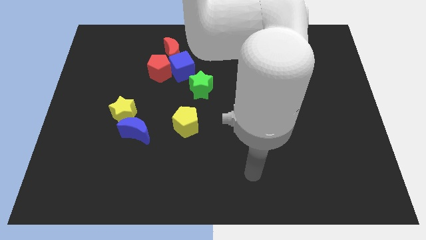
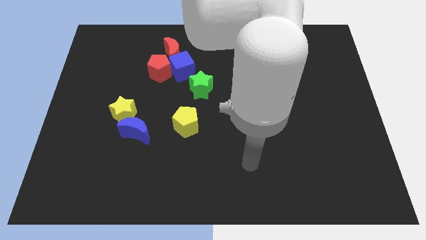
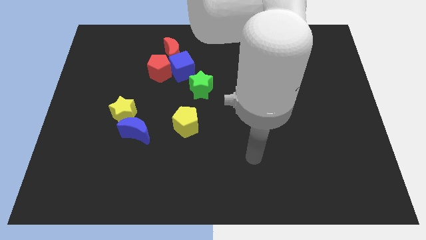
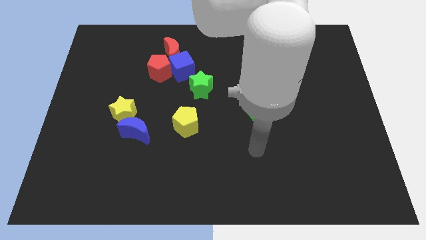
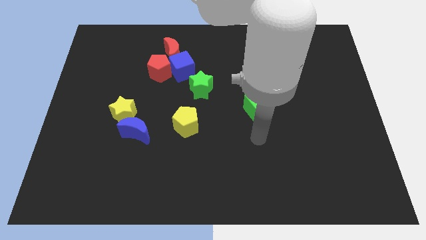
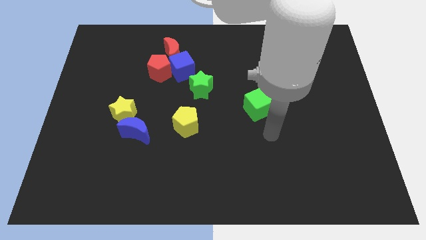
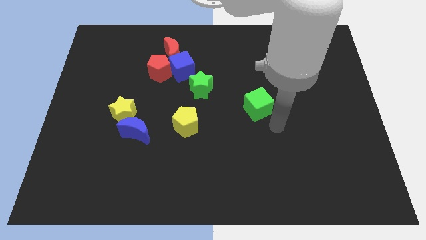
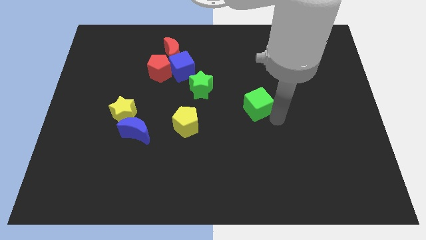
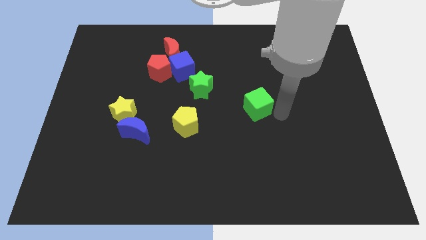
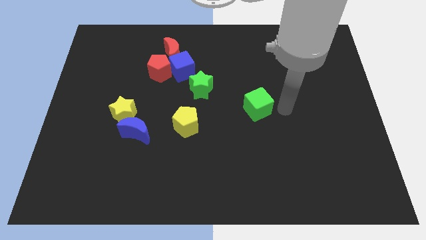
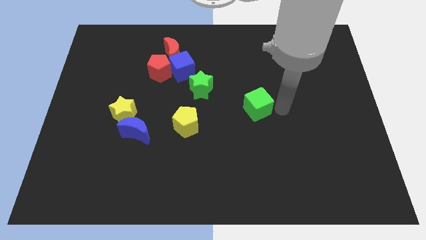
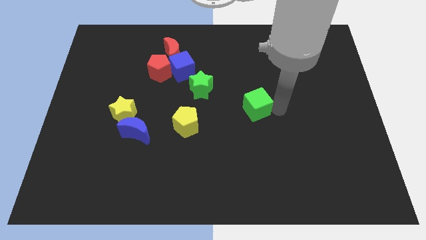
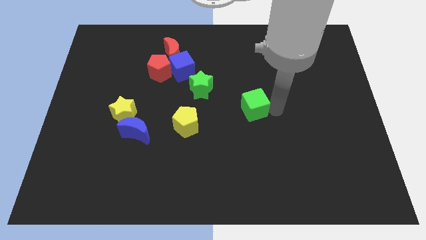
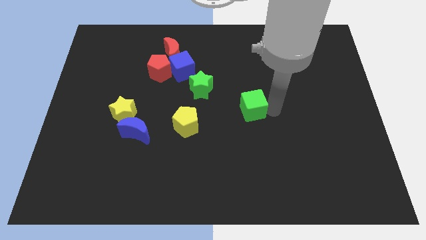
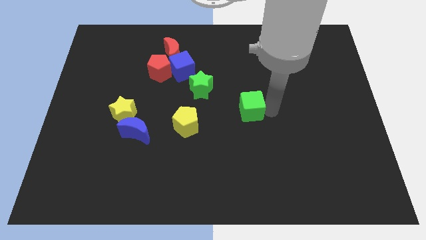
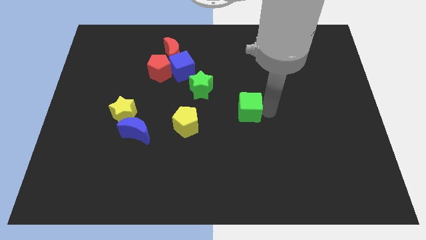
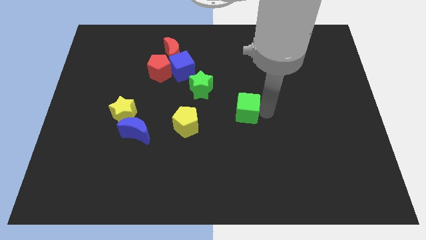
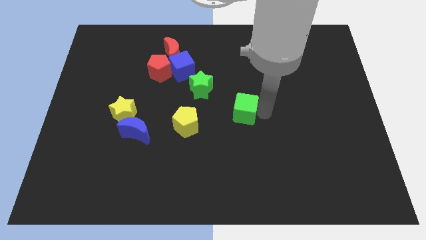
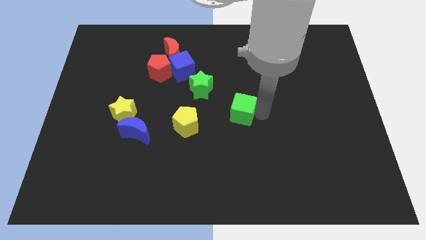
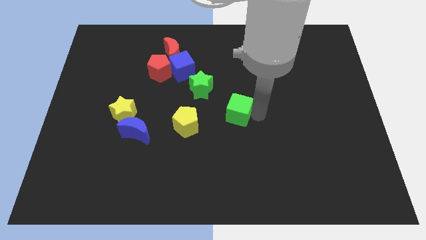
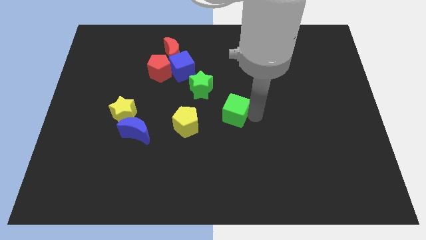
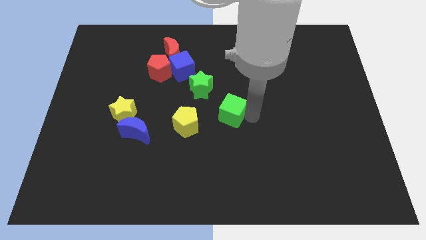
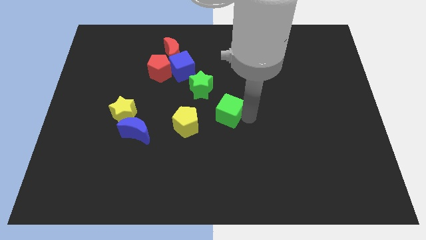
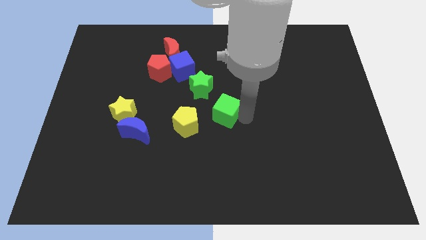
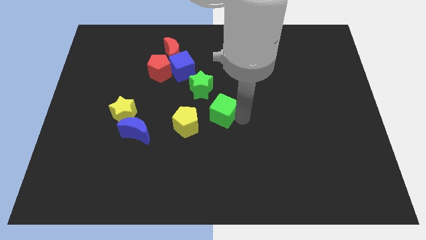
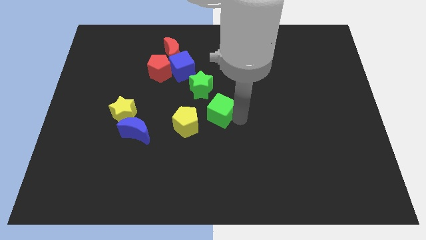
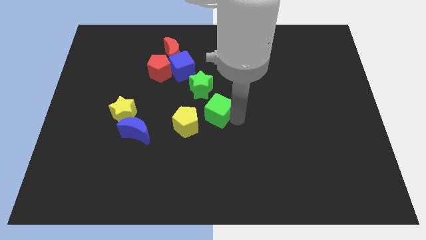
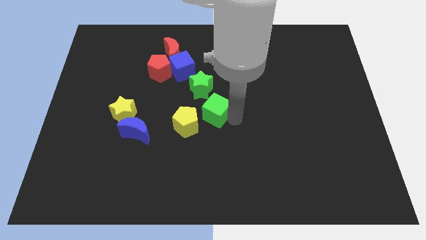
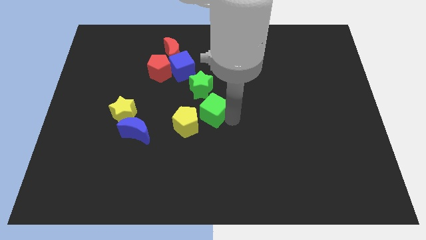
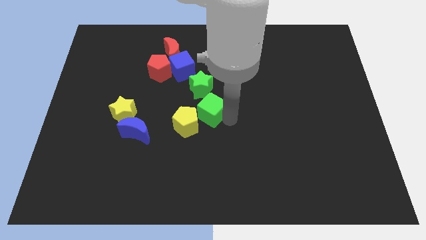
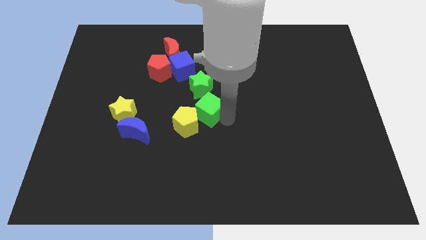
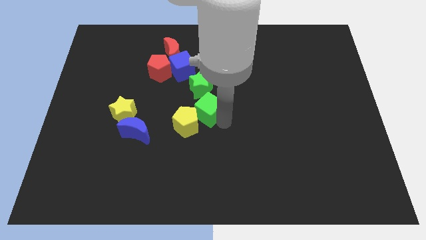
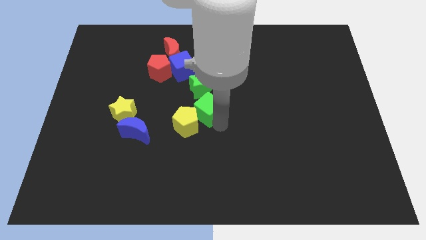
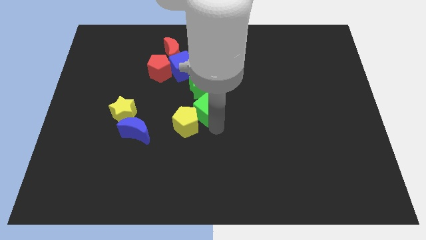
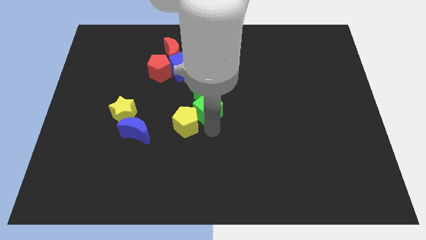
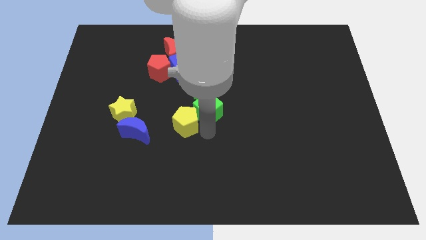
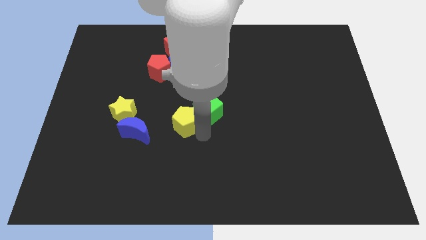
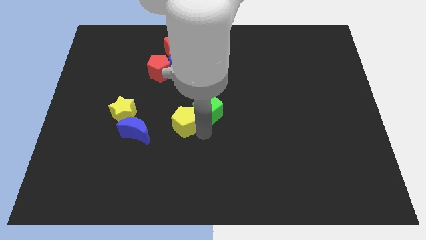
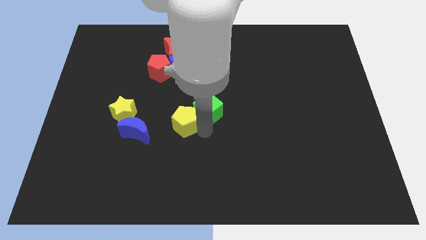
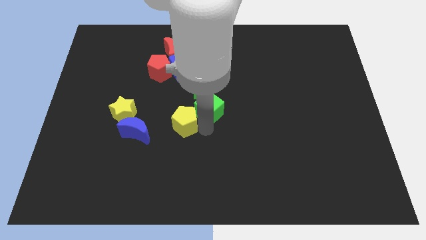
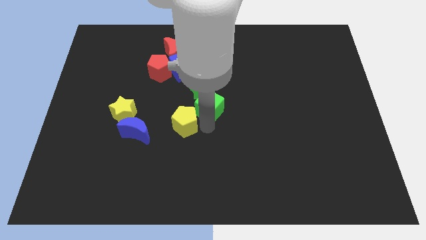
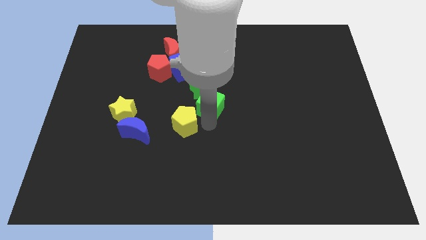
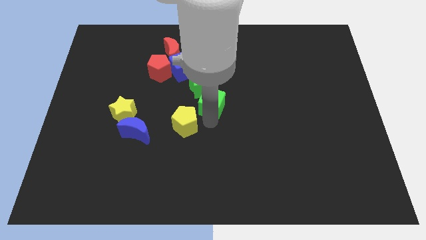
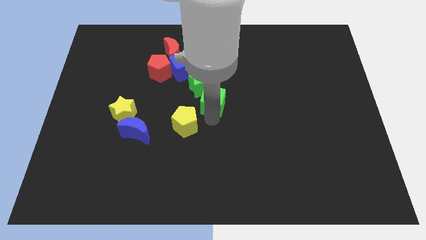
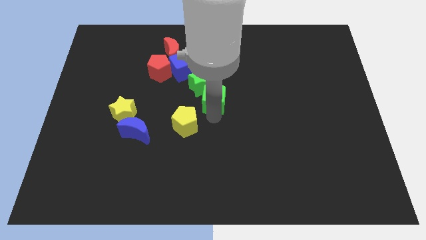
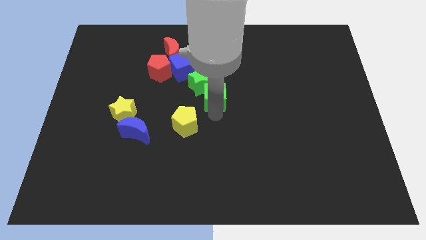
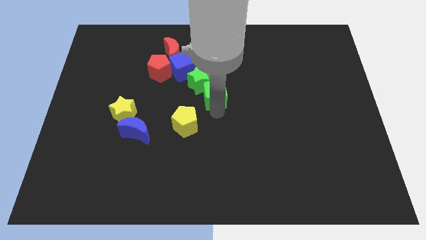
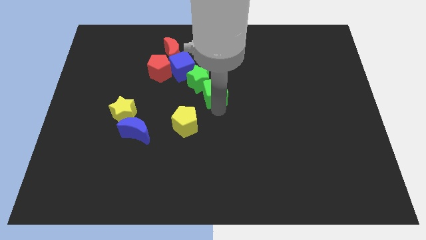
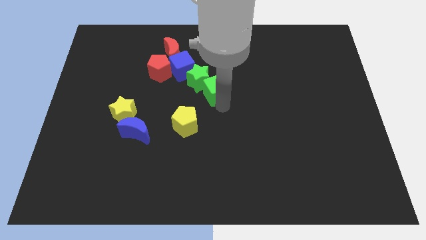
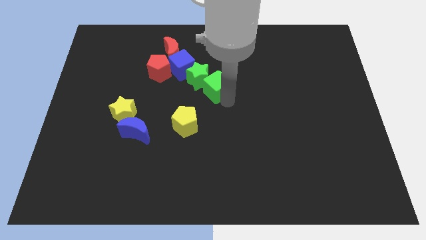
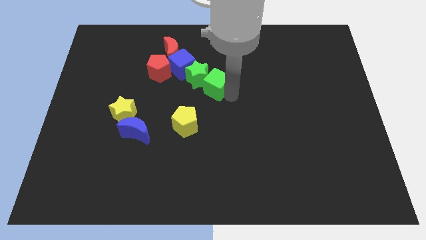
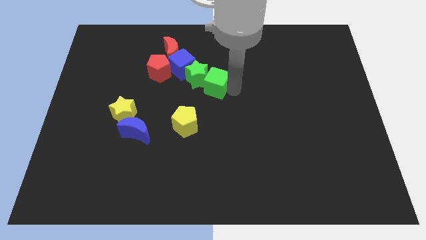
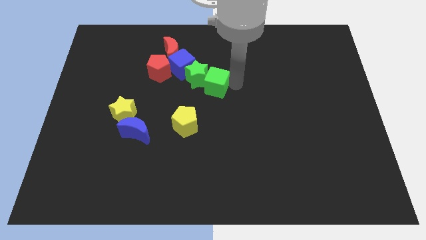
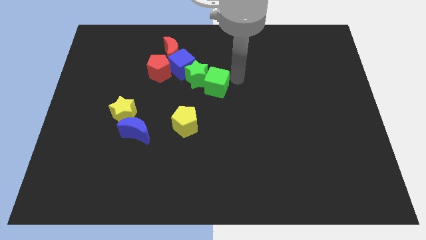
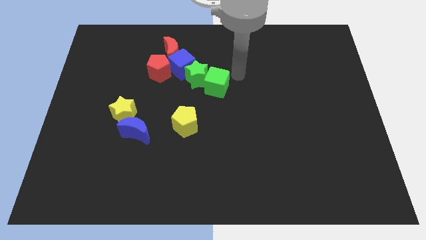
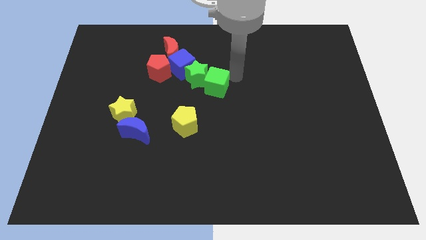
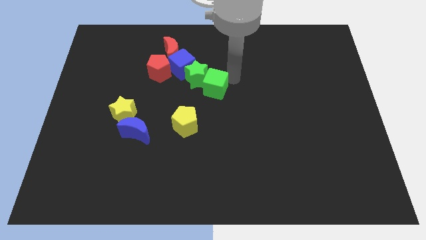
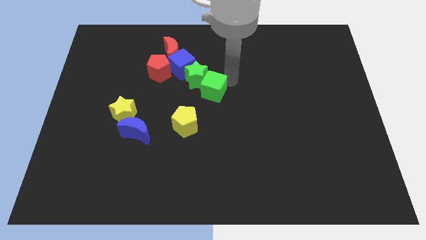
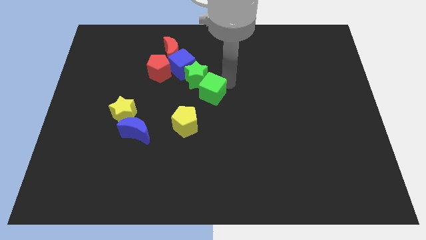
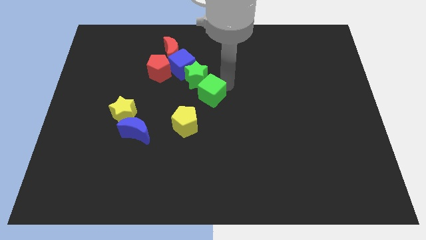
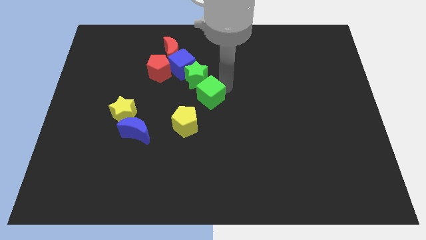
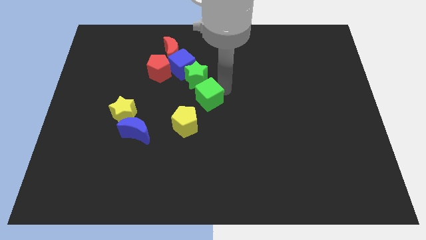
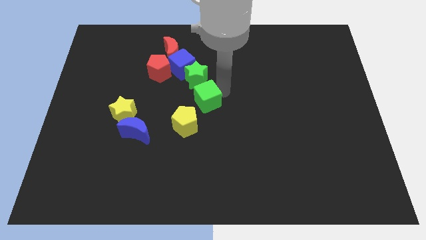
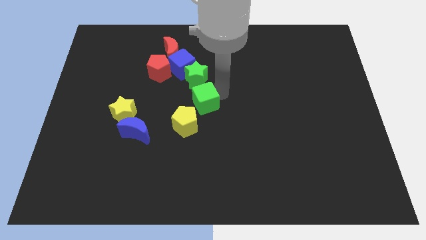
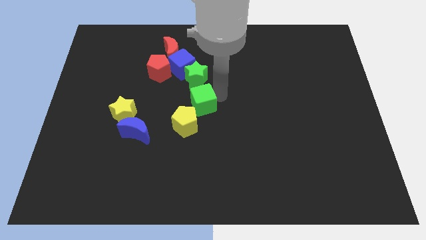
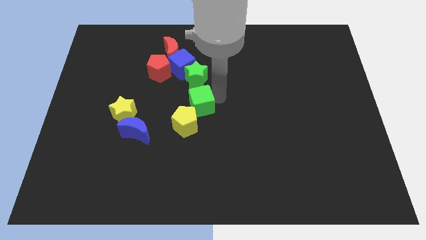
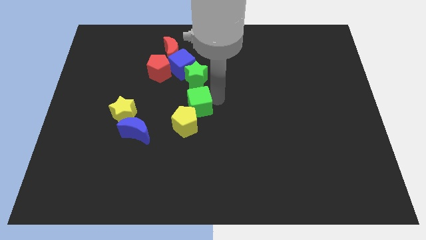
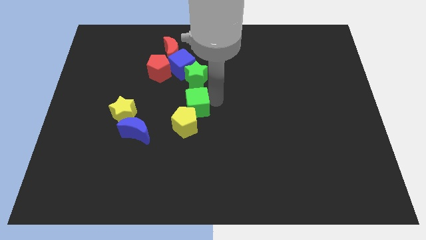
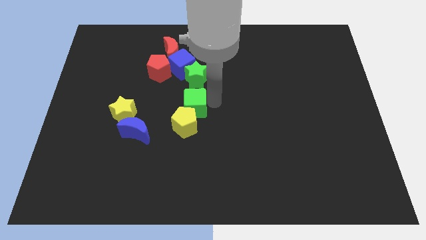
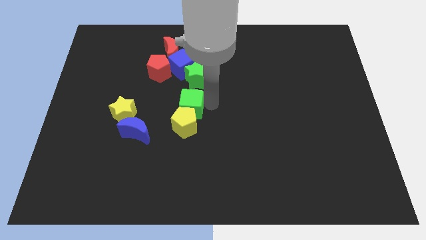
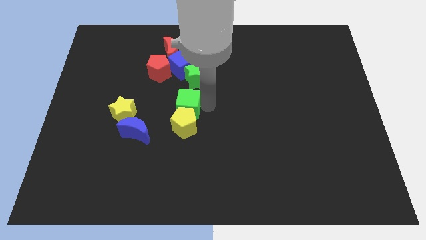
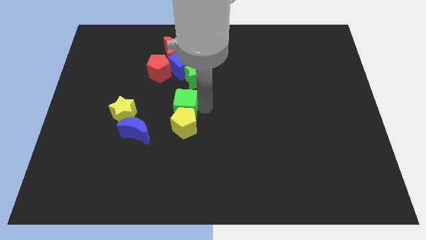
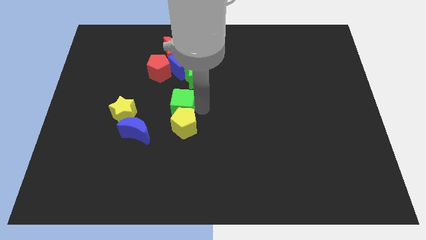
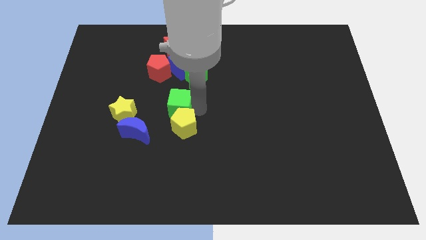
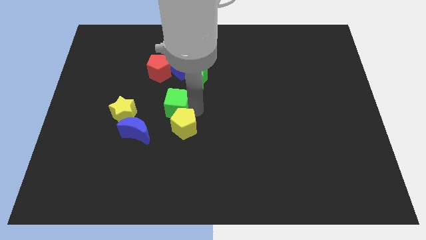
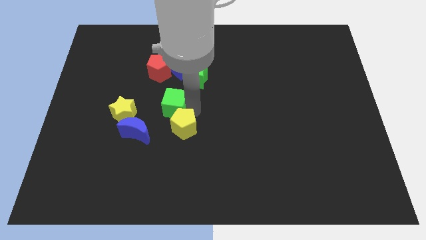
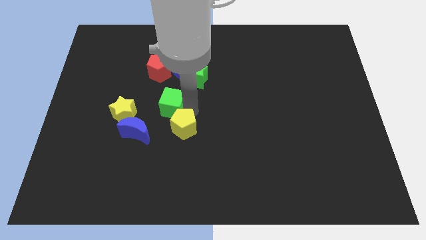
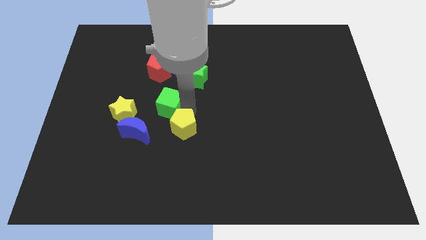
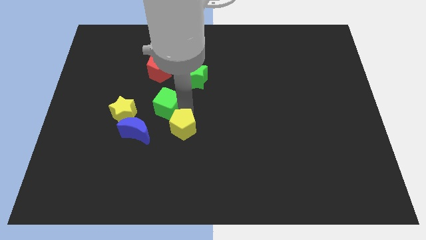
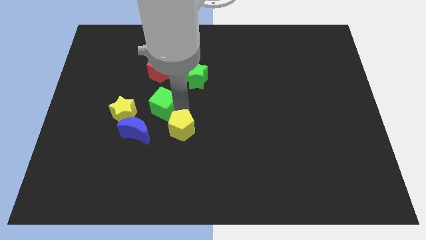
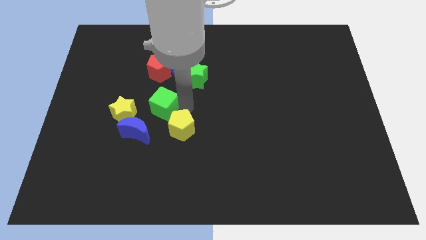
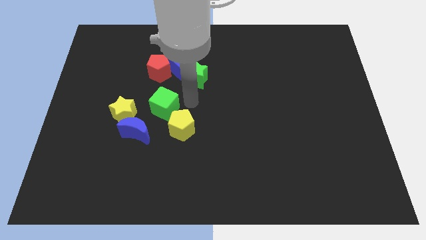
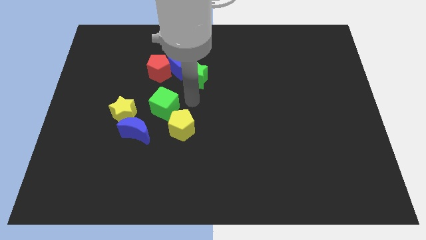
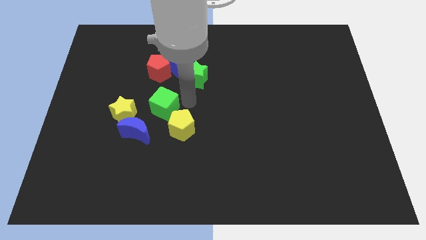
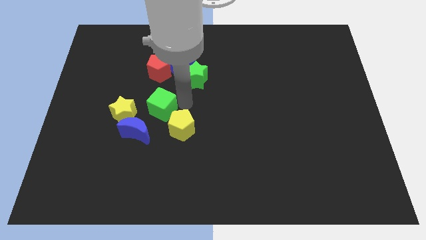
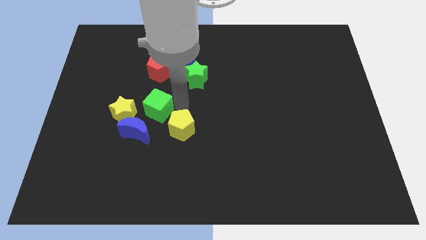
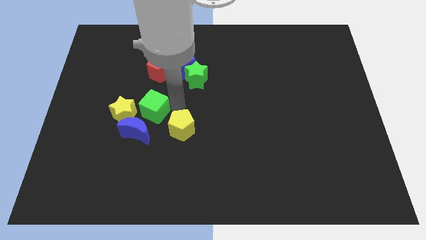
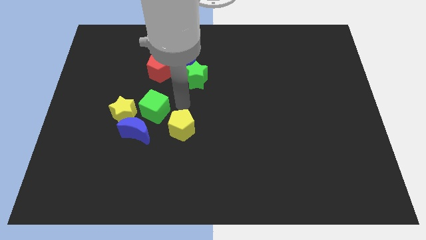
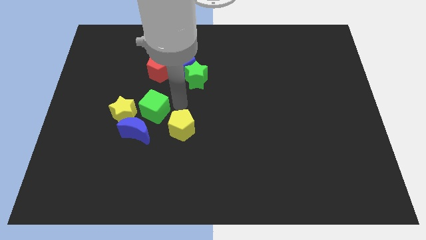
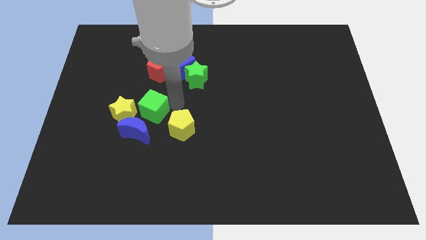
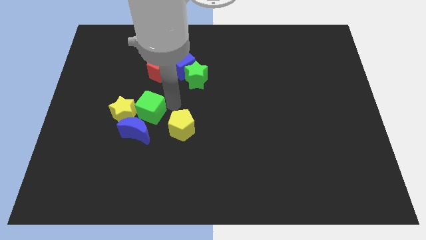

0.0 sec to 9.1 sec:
push the green cube towards the yellow star
